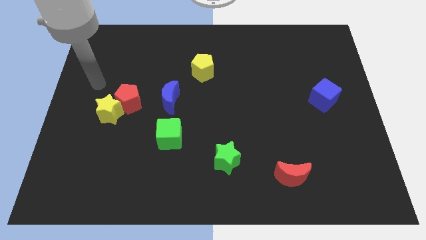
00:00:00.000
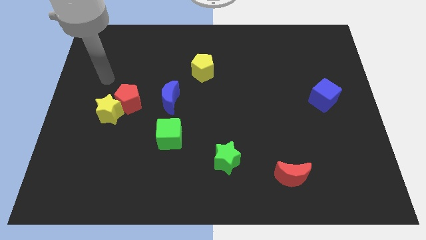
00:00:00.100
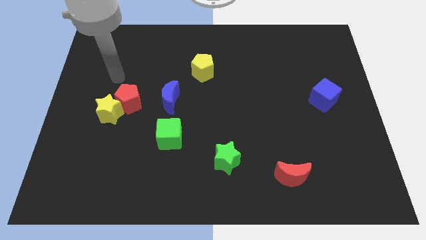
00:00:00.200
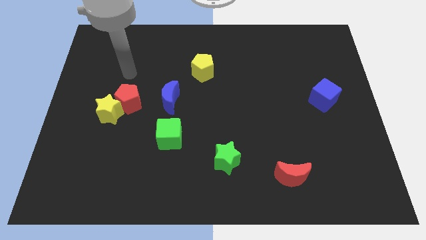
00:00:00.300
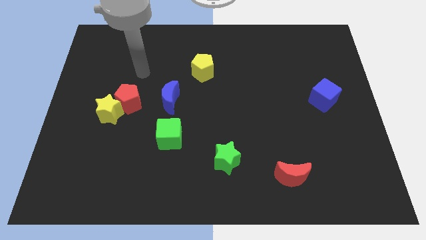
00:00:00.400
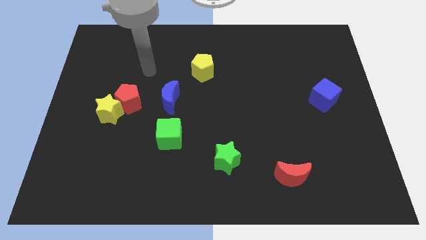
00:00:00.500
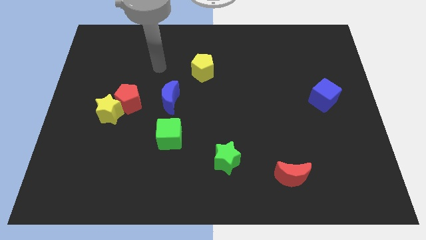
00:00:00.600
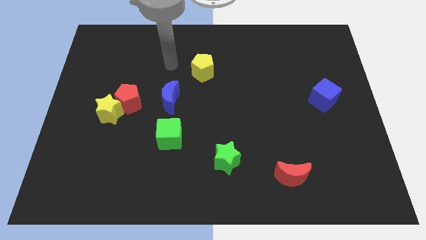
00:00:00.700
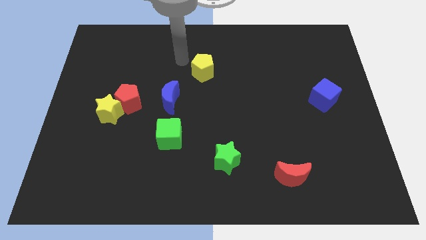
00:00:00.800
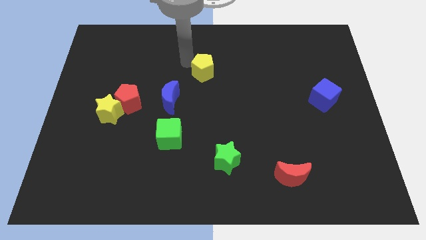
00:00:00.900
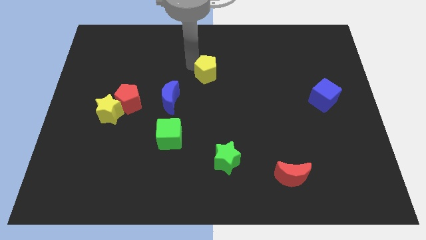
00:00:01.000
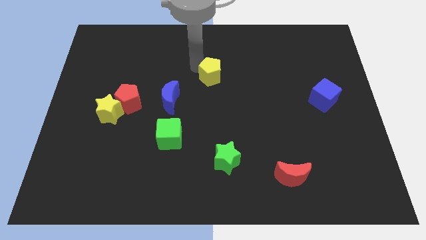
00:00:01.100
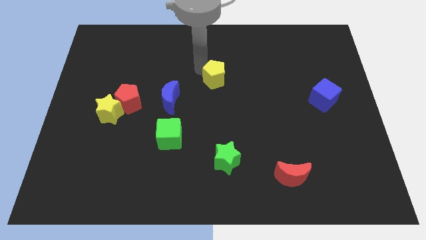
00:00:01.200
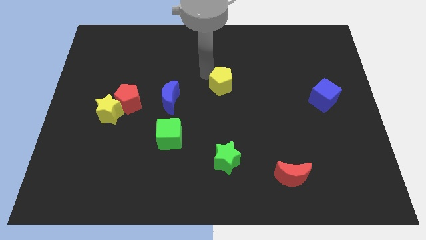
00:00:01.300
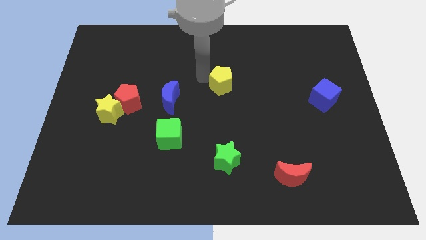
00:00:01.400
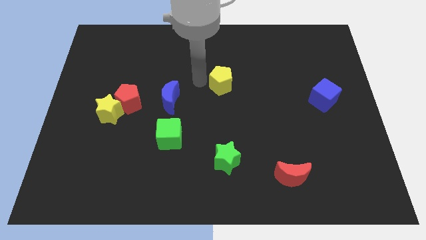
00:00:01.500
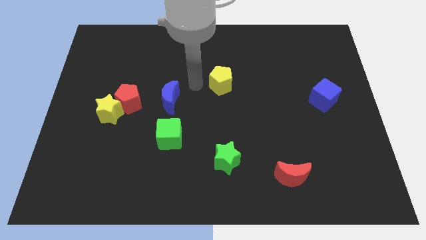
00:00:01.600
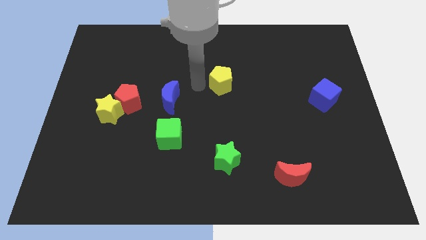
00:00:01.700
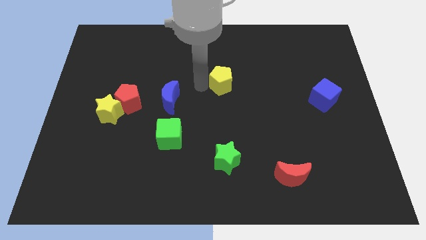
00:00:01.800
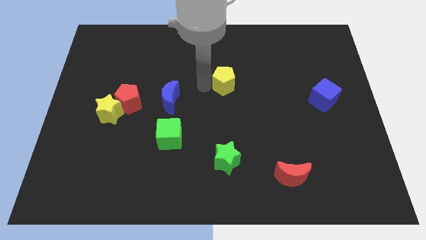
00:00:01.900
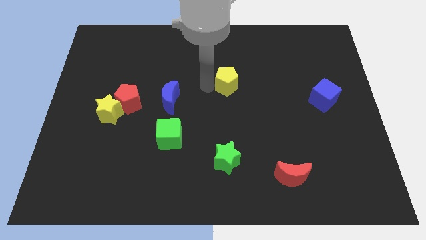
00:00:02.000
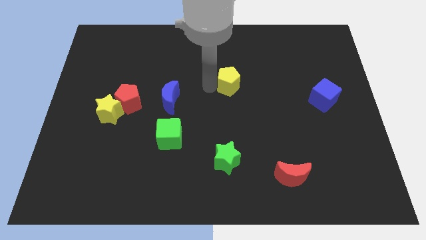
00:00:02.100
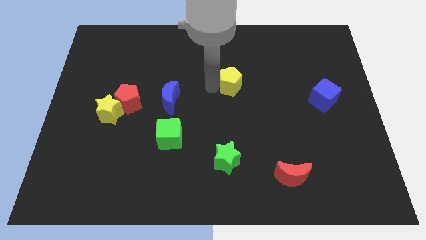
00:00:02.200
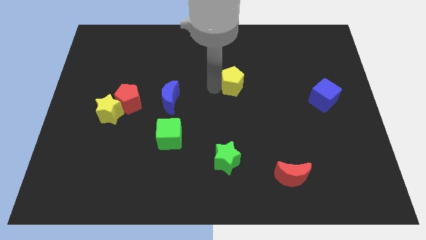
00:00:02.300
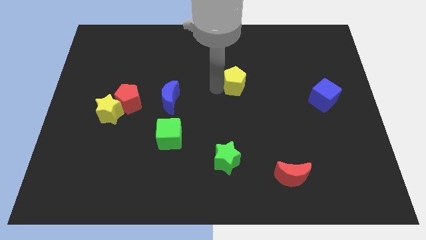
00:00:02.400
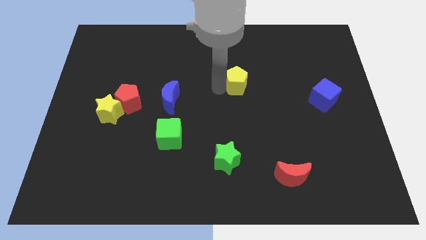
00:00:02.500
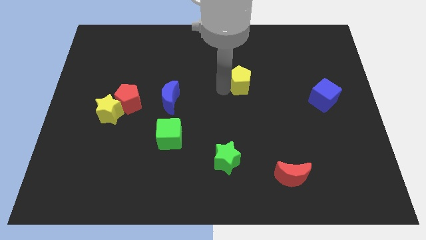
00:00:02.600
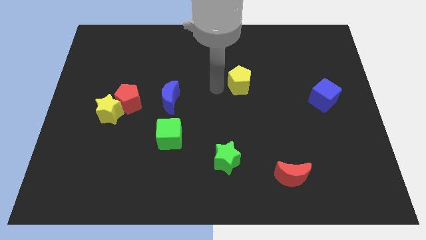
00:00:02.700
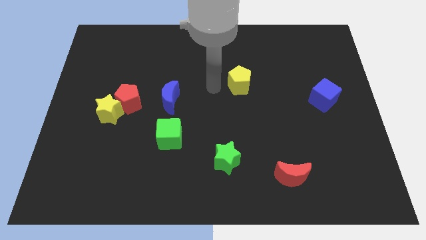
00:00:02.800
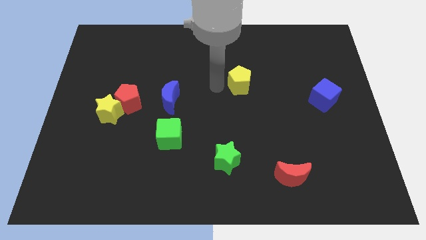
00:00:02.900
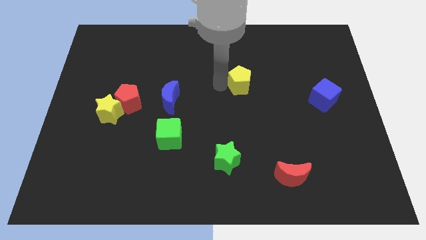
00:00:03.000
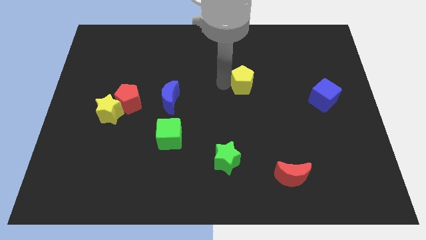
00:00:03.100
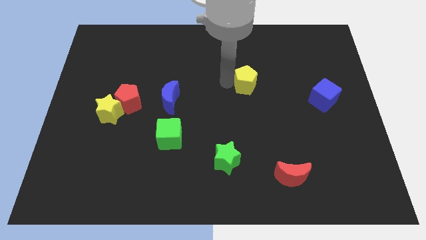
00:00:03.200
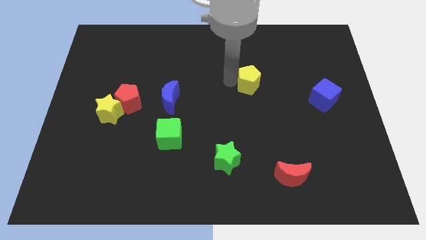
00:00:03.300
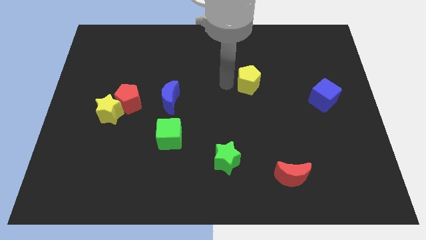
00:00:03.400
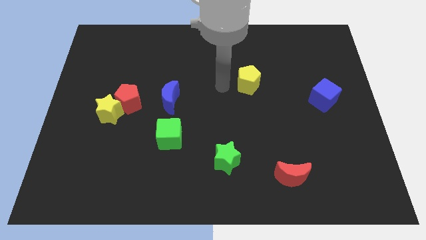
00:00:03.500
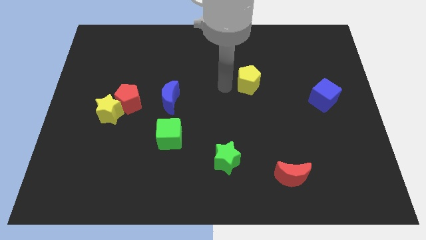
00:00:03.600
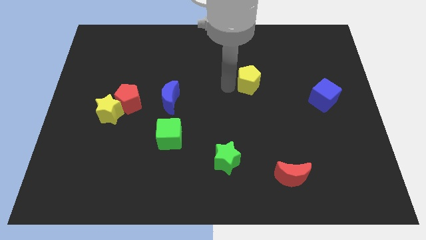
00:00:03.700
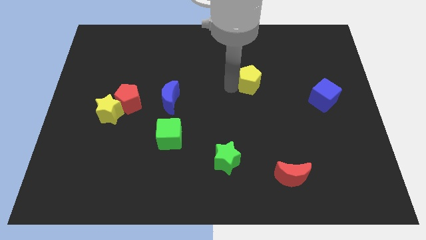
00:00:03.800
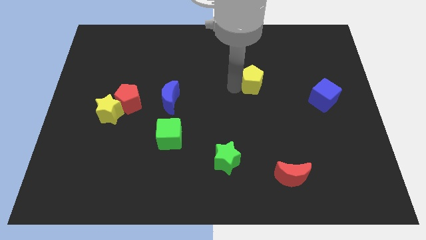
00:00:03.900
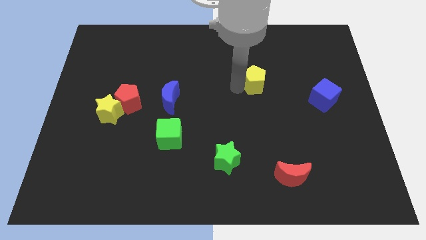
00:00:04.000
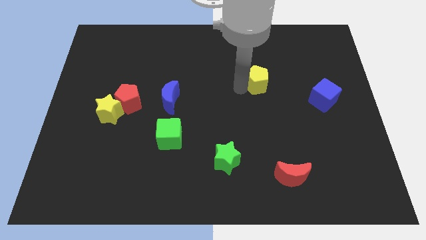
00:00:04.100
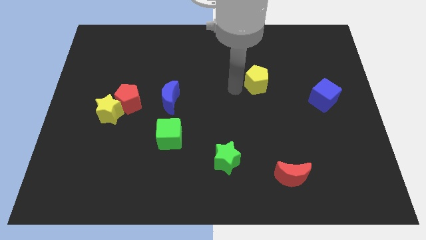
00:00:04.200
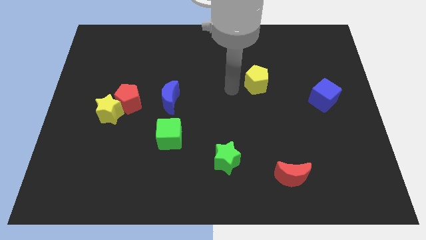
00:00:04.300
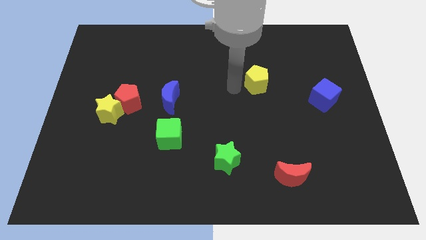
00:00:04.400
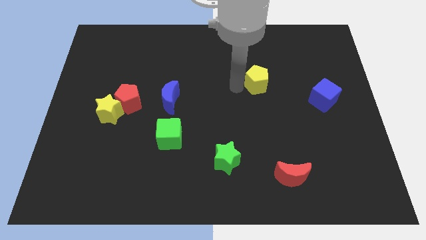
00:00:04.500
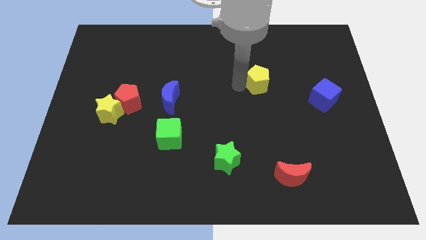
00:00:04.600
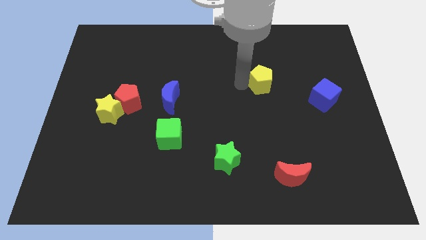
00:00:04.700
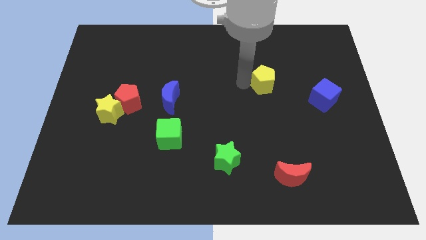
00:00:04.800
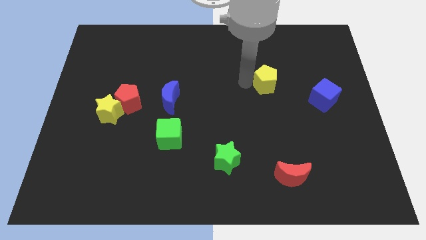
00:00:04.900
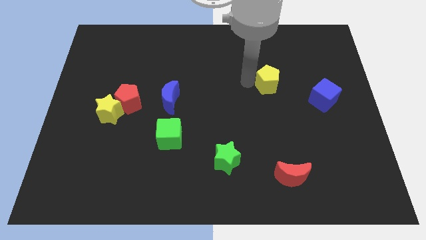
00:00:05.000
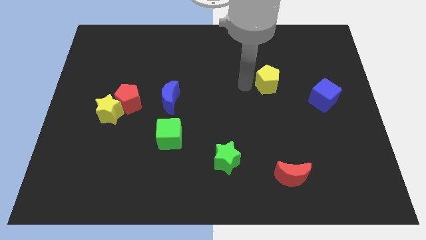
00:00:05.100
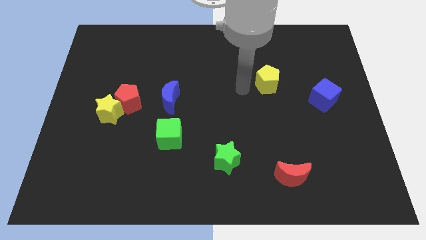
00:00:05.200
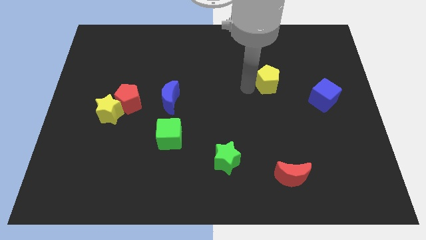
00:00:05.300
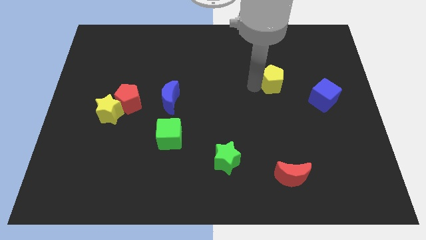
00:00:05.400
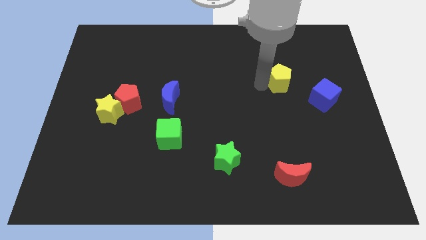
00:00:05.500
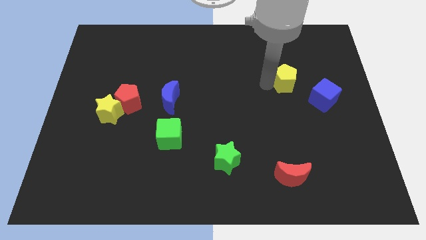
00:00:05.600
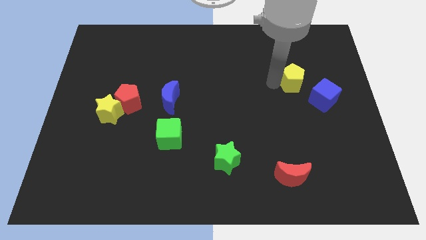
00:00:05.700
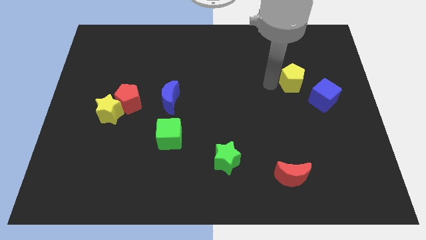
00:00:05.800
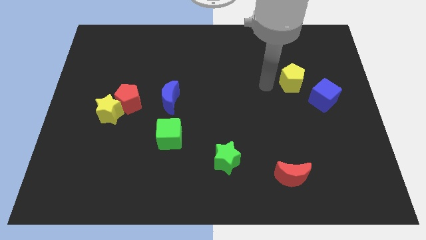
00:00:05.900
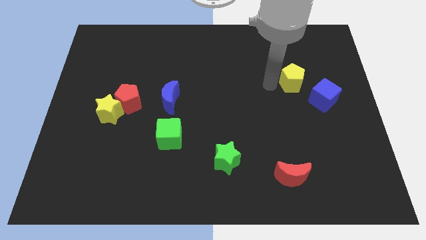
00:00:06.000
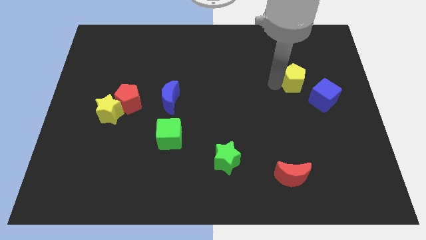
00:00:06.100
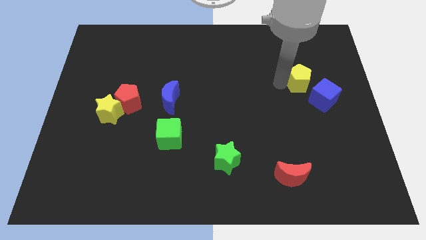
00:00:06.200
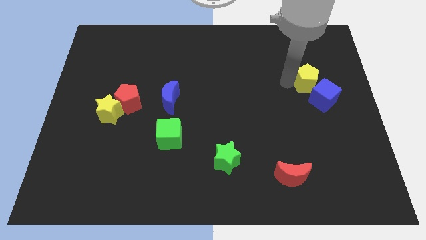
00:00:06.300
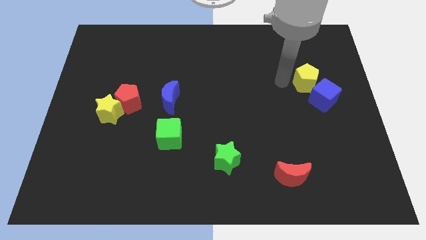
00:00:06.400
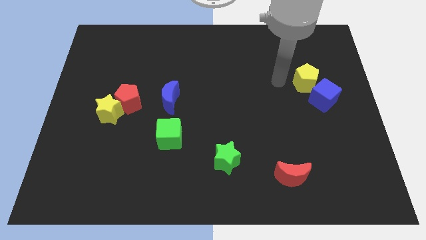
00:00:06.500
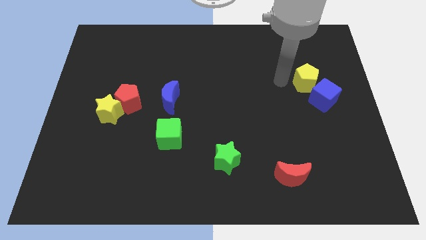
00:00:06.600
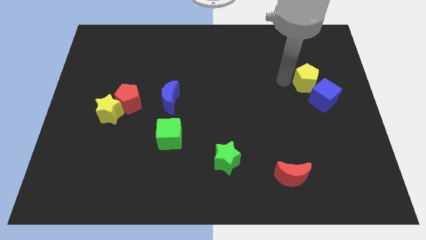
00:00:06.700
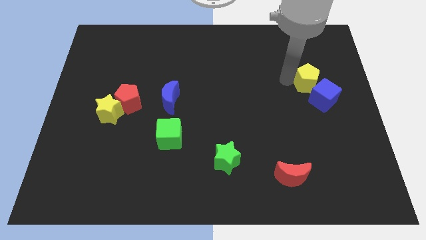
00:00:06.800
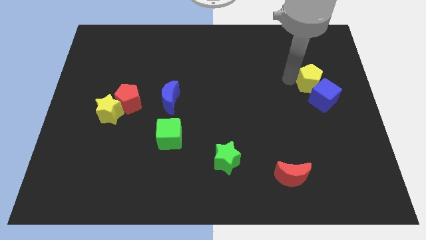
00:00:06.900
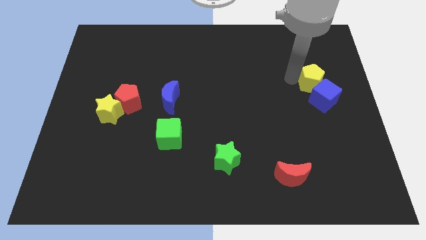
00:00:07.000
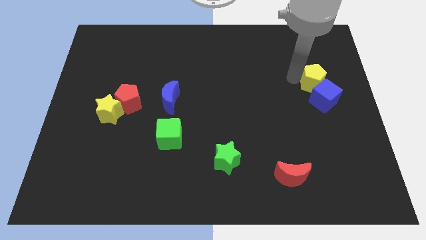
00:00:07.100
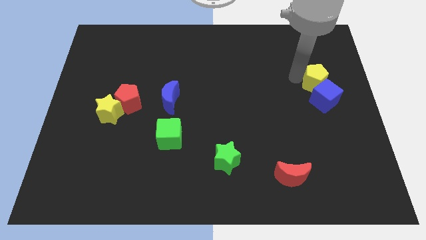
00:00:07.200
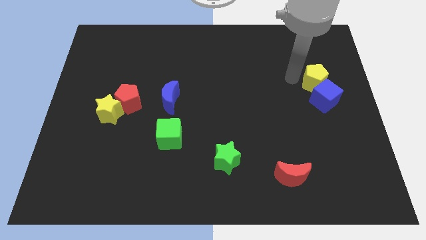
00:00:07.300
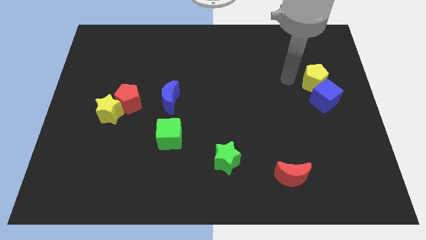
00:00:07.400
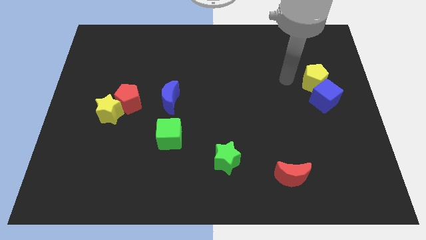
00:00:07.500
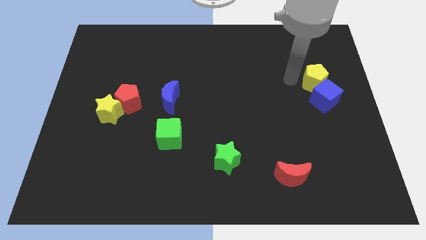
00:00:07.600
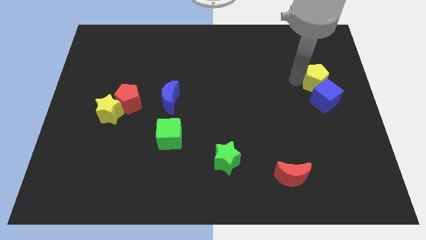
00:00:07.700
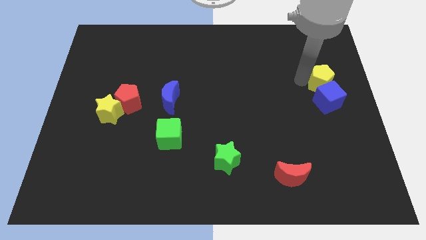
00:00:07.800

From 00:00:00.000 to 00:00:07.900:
push the yellow pentagon to the right side
